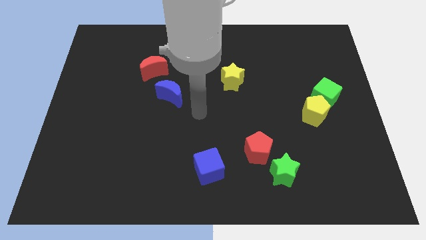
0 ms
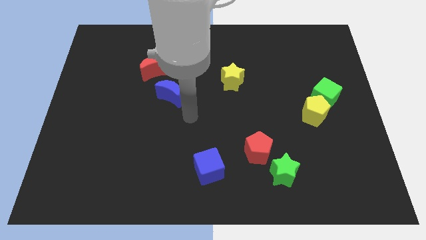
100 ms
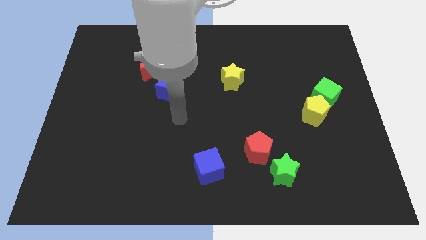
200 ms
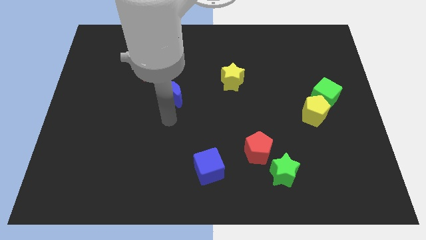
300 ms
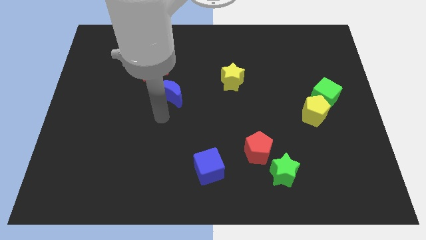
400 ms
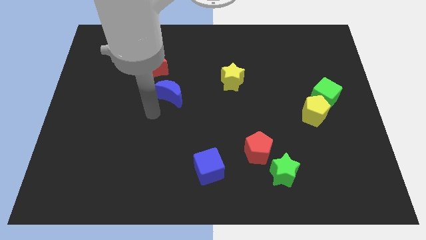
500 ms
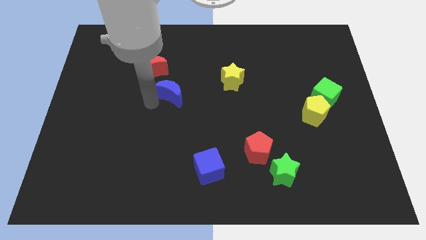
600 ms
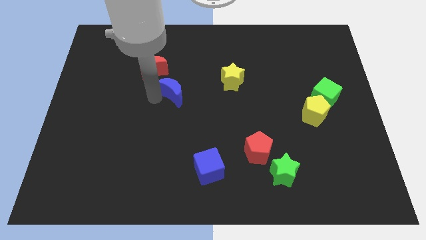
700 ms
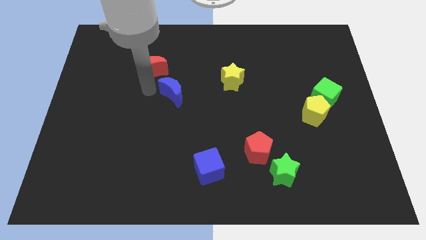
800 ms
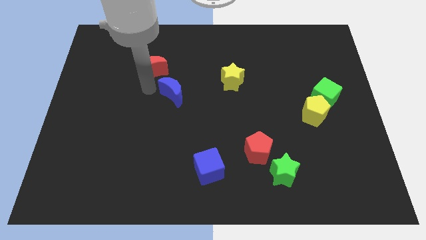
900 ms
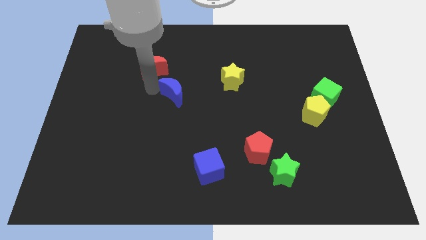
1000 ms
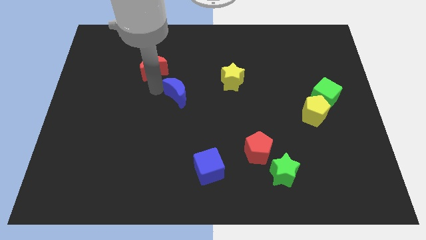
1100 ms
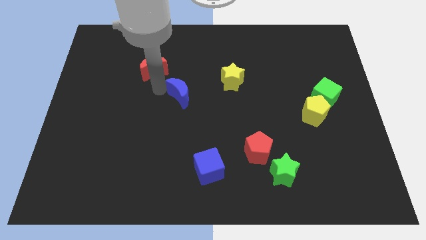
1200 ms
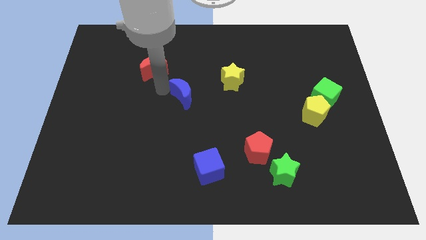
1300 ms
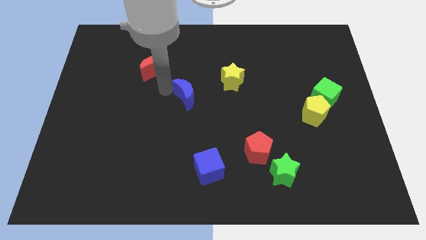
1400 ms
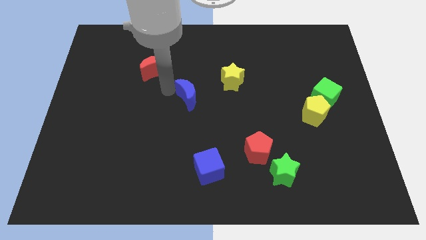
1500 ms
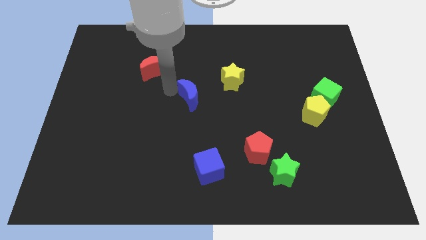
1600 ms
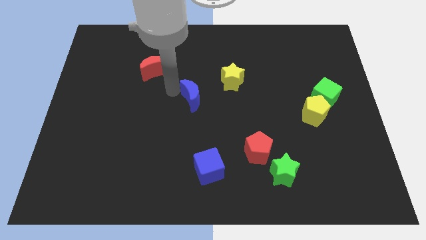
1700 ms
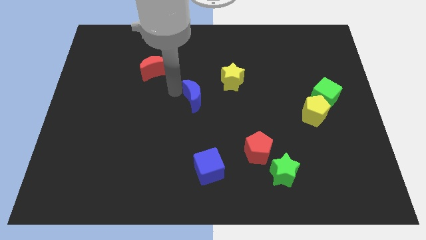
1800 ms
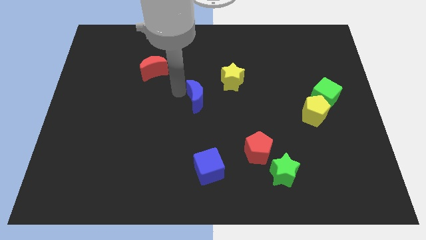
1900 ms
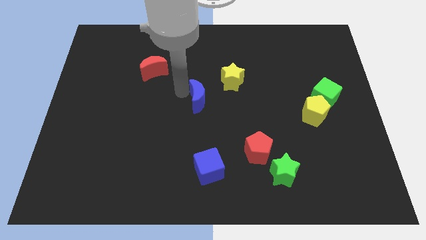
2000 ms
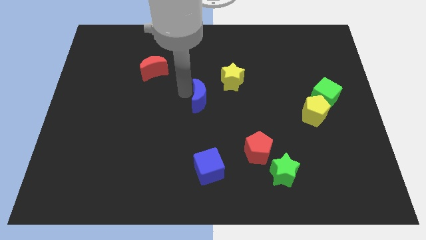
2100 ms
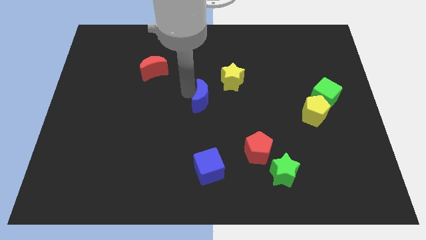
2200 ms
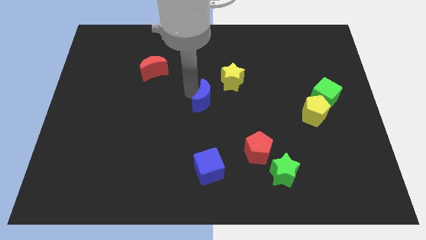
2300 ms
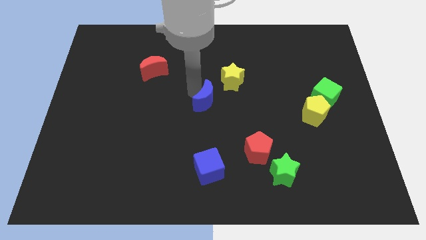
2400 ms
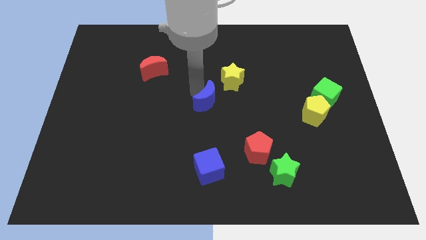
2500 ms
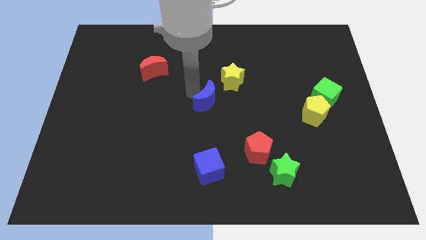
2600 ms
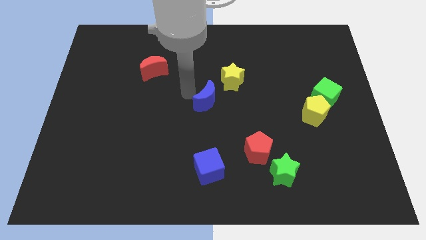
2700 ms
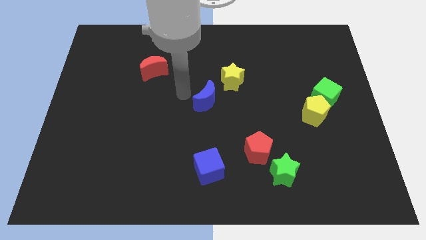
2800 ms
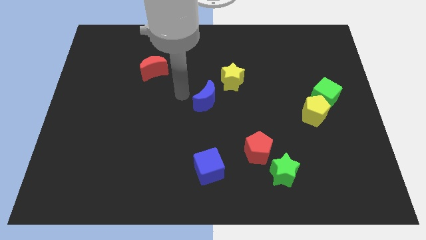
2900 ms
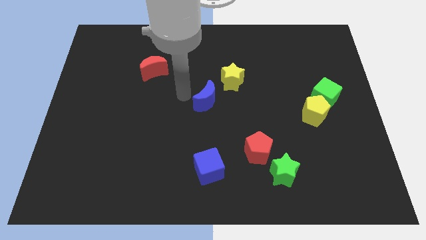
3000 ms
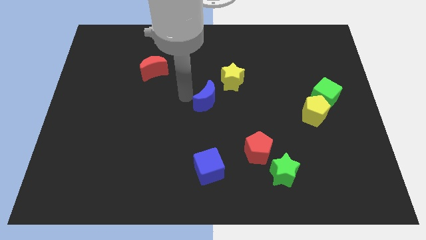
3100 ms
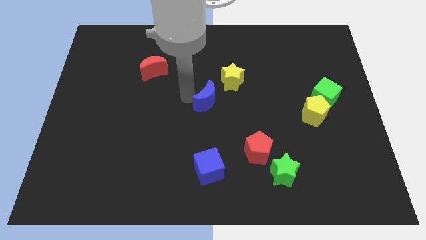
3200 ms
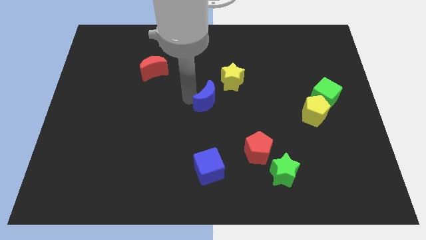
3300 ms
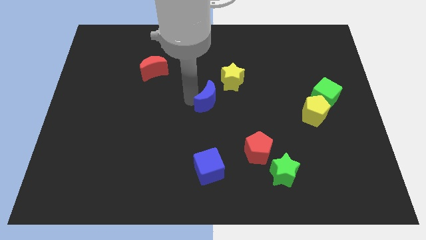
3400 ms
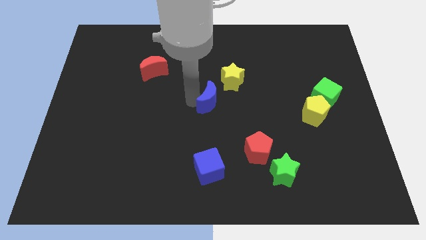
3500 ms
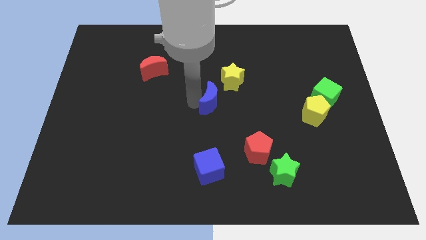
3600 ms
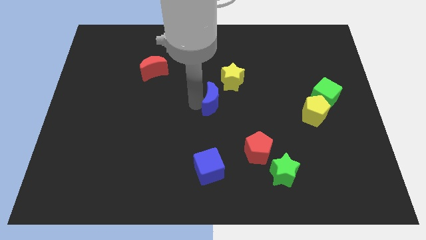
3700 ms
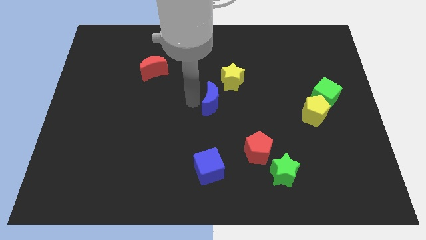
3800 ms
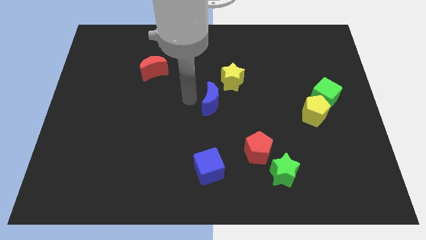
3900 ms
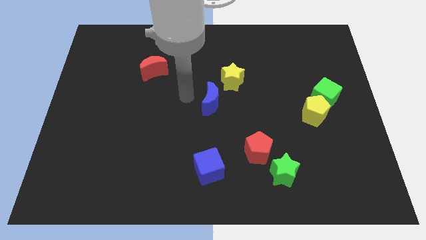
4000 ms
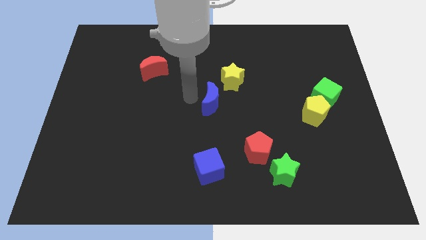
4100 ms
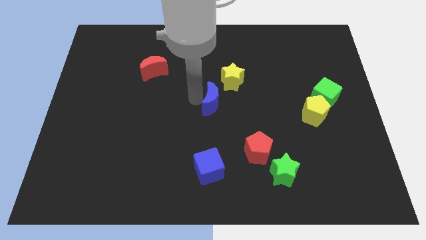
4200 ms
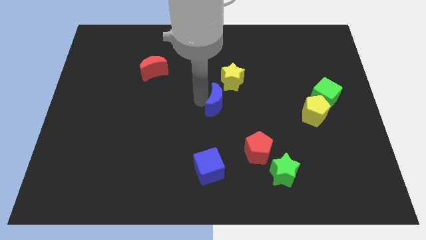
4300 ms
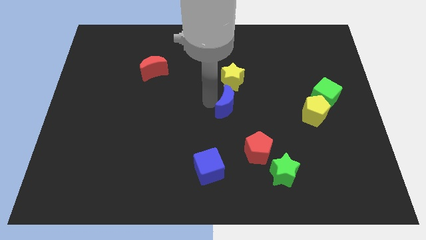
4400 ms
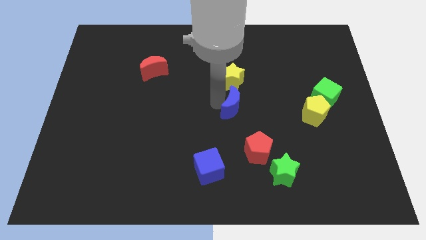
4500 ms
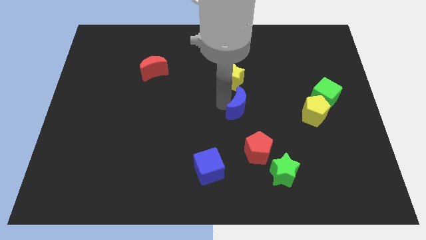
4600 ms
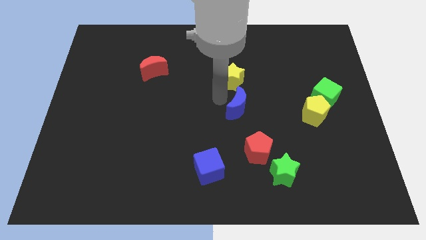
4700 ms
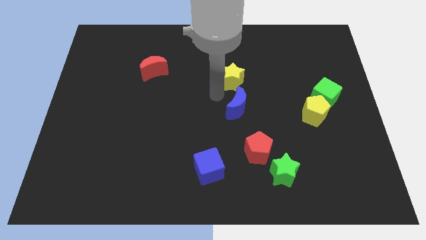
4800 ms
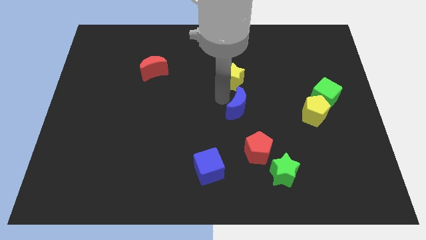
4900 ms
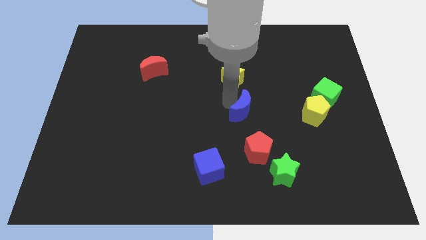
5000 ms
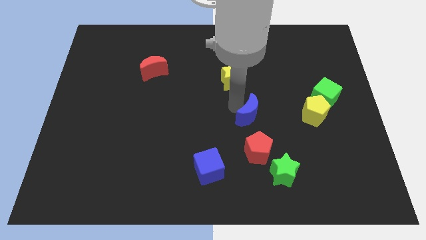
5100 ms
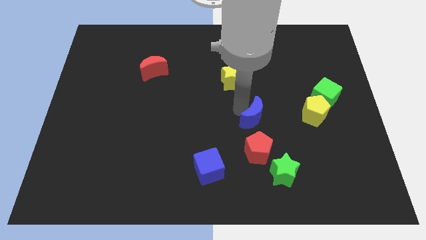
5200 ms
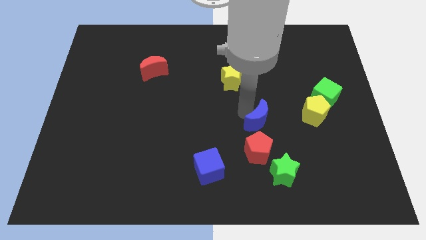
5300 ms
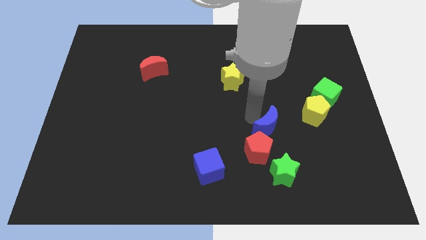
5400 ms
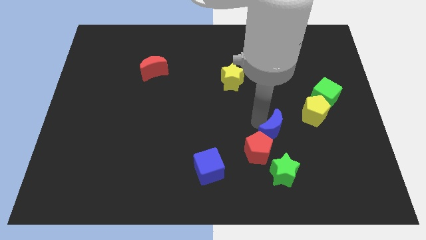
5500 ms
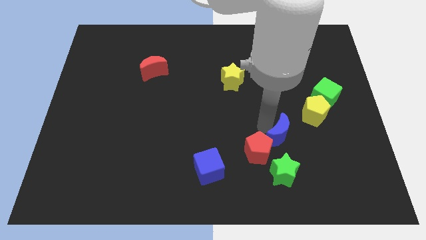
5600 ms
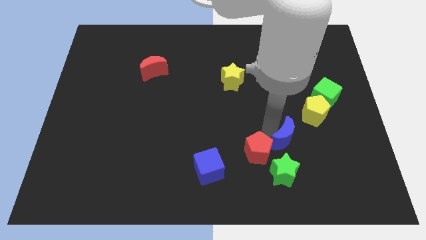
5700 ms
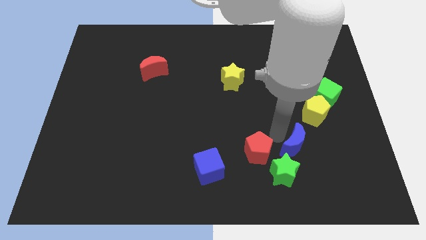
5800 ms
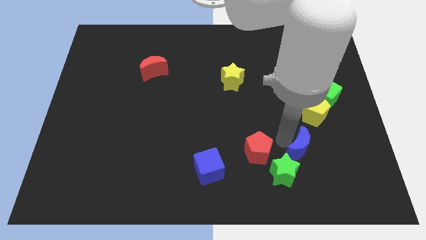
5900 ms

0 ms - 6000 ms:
put the blue moon to the bottom side of the yellow pentagon

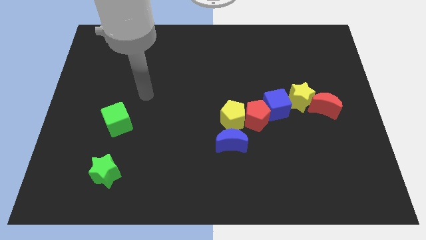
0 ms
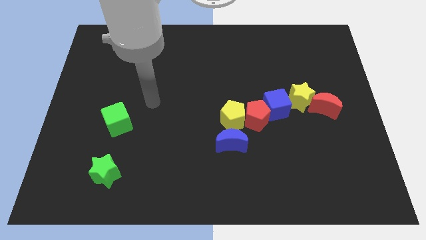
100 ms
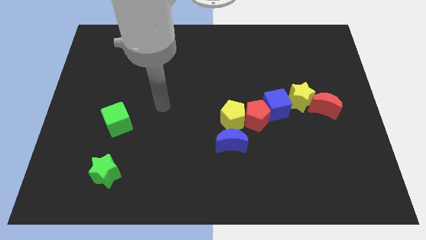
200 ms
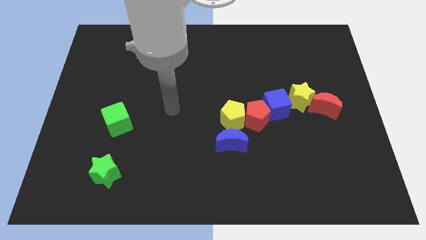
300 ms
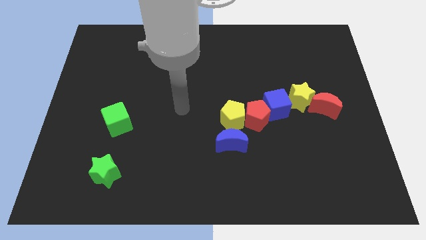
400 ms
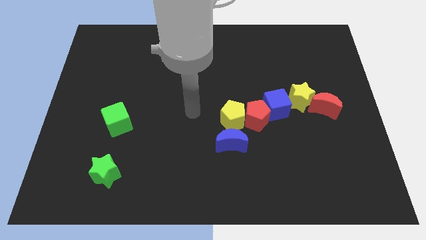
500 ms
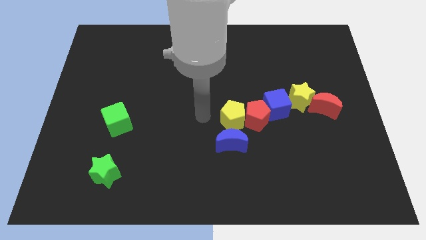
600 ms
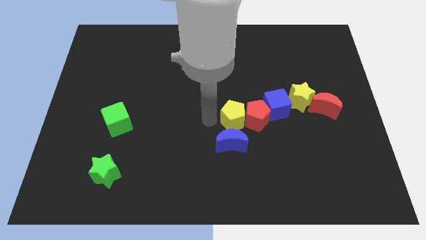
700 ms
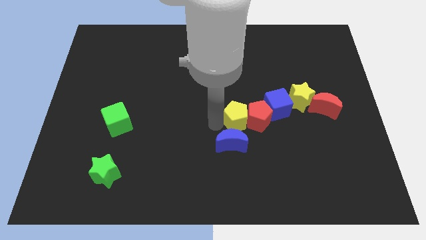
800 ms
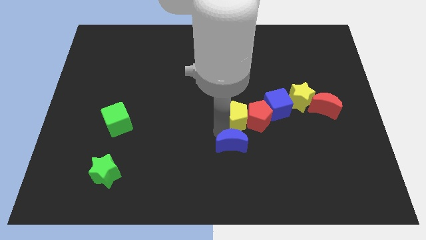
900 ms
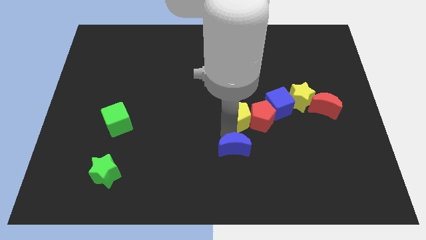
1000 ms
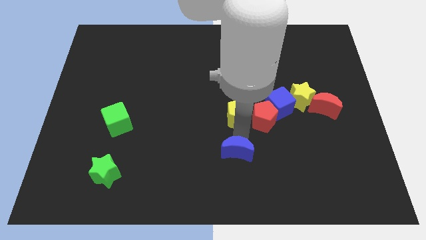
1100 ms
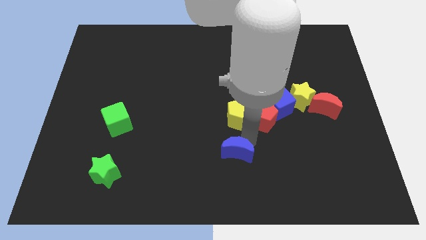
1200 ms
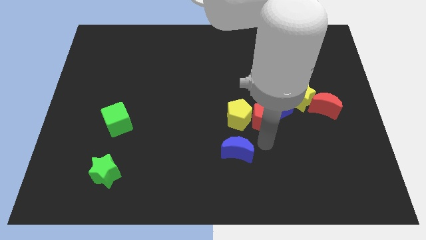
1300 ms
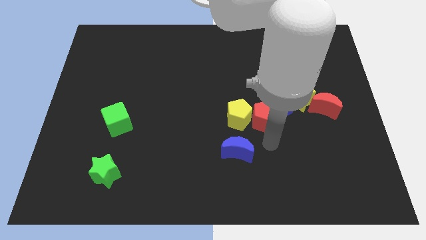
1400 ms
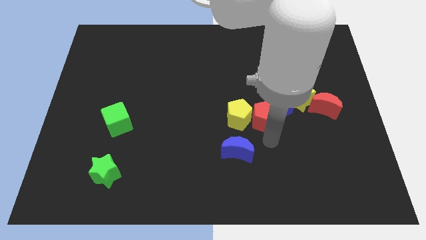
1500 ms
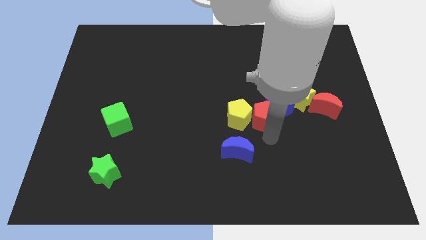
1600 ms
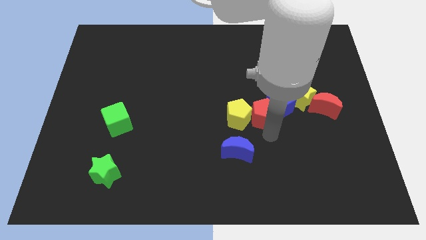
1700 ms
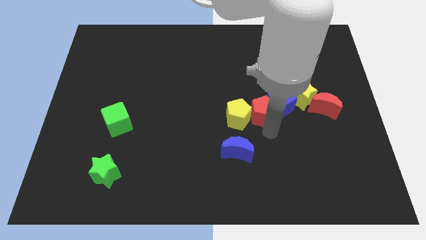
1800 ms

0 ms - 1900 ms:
put the red pentagon left of the yellow star
